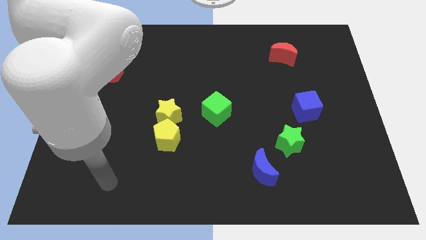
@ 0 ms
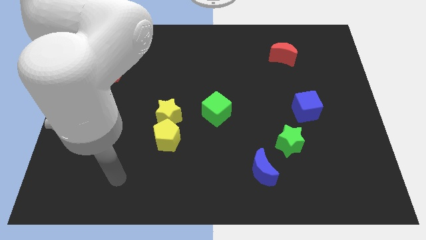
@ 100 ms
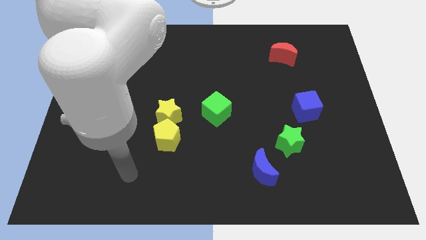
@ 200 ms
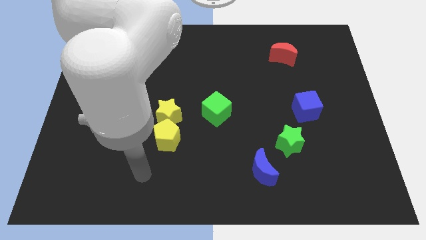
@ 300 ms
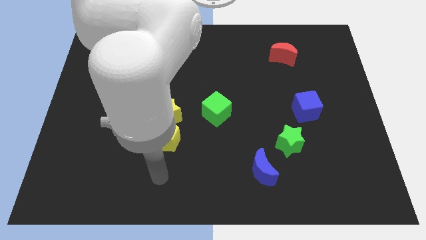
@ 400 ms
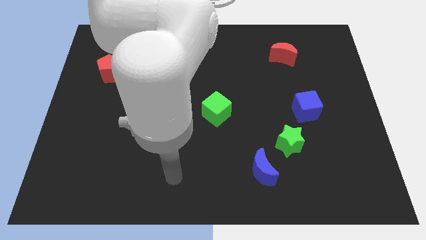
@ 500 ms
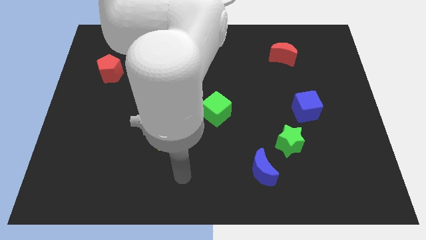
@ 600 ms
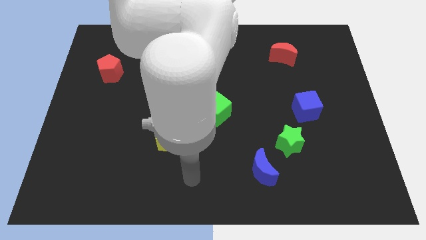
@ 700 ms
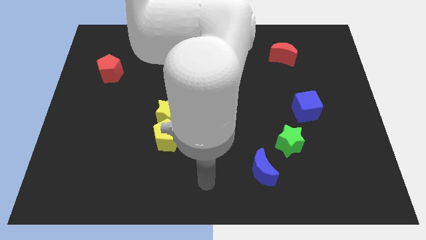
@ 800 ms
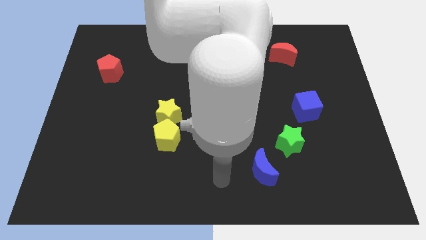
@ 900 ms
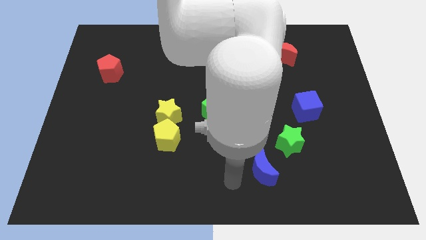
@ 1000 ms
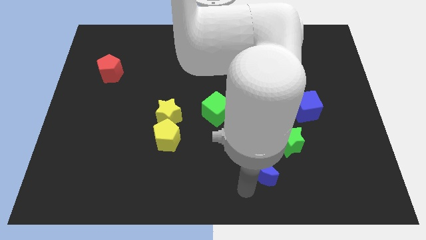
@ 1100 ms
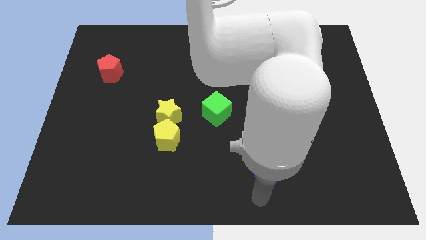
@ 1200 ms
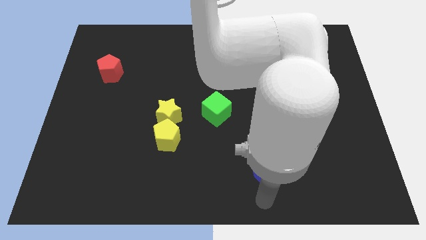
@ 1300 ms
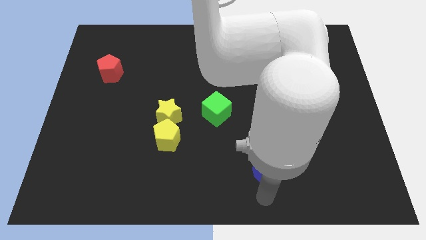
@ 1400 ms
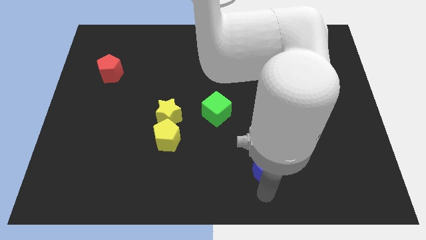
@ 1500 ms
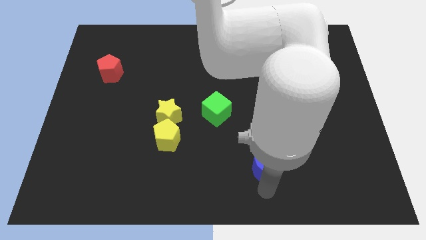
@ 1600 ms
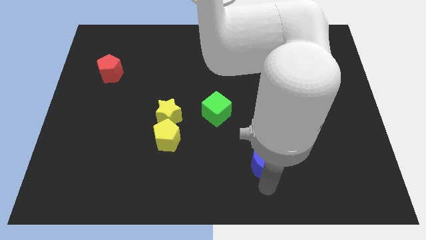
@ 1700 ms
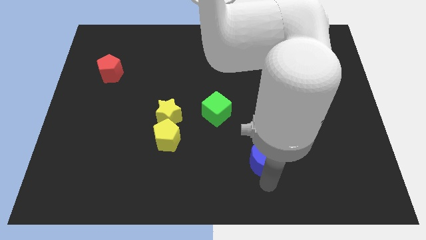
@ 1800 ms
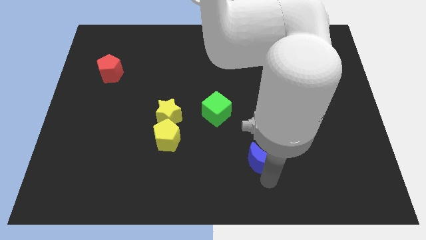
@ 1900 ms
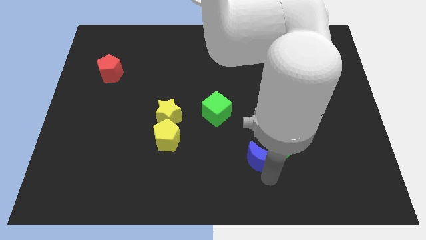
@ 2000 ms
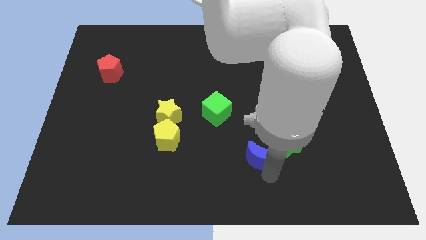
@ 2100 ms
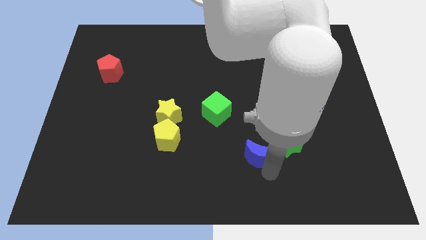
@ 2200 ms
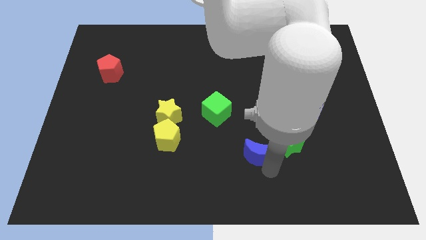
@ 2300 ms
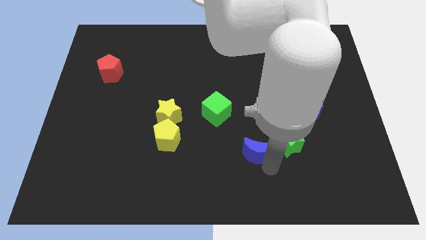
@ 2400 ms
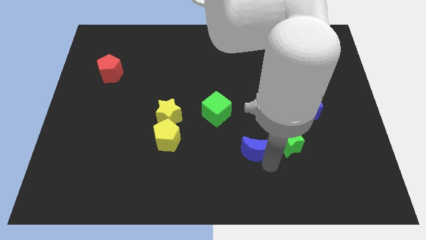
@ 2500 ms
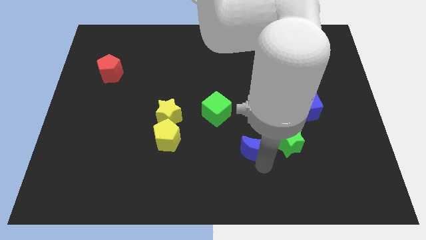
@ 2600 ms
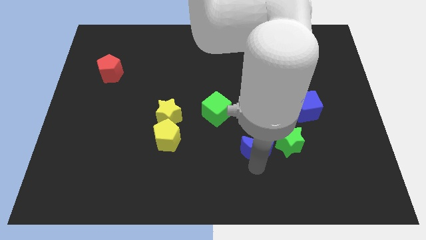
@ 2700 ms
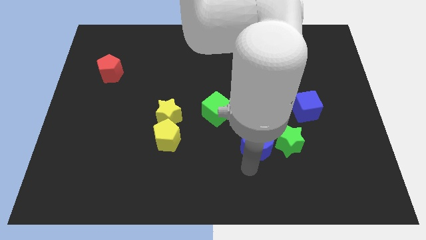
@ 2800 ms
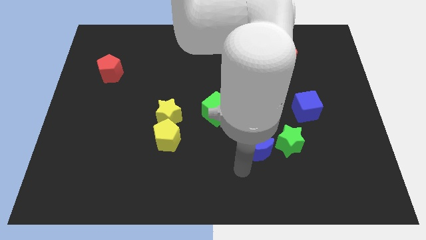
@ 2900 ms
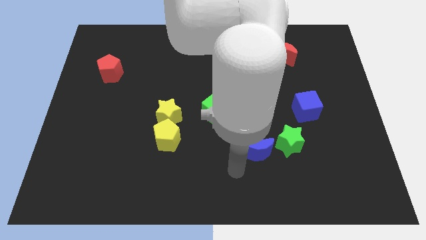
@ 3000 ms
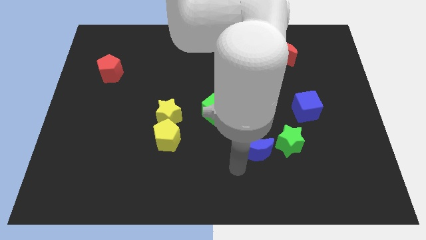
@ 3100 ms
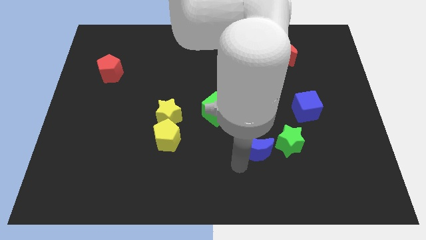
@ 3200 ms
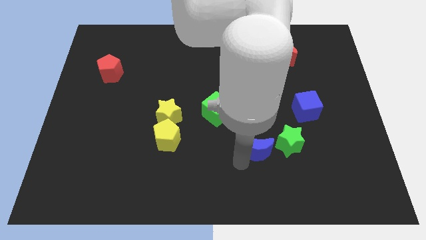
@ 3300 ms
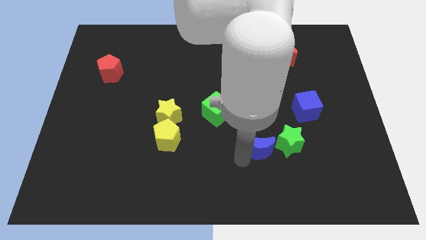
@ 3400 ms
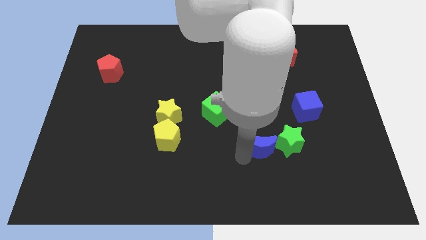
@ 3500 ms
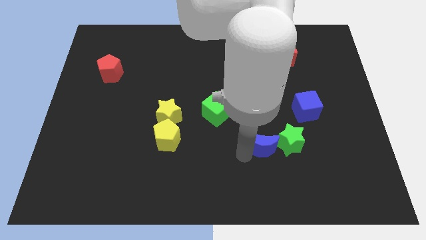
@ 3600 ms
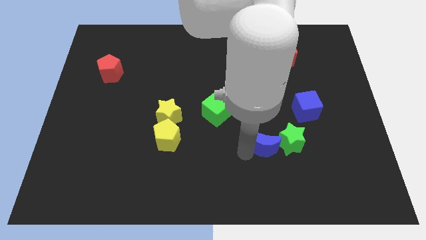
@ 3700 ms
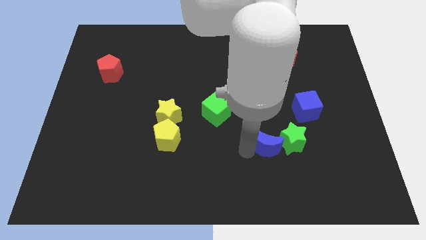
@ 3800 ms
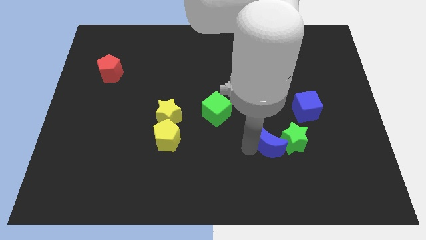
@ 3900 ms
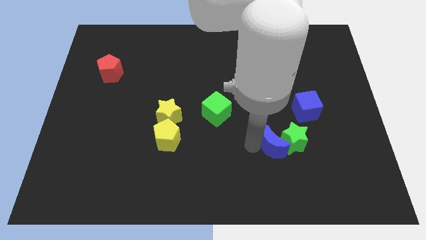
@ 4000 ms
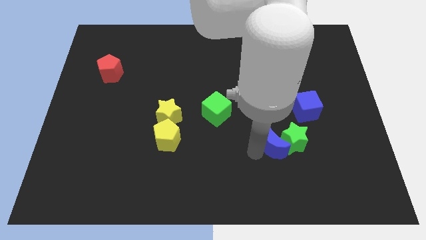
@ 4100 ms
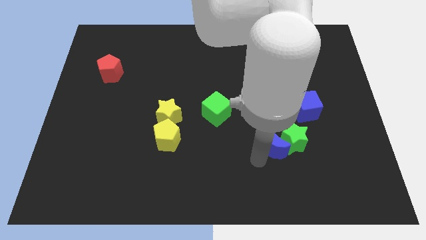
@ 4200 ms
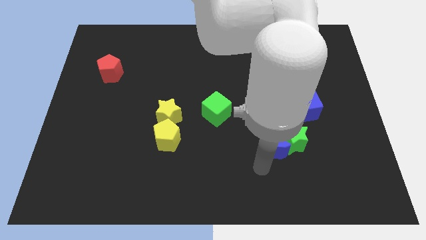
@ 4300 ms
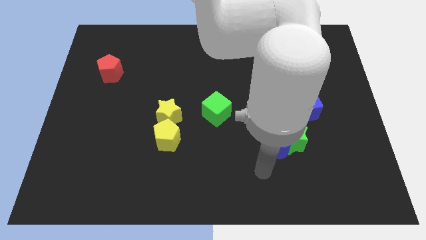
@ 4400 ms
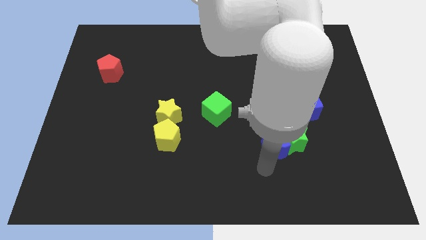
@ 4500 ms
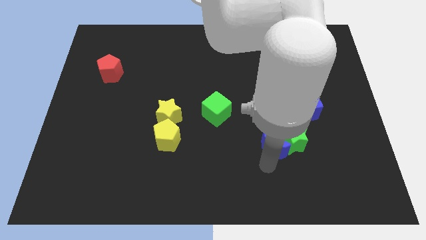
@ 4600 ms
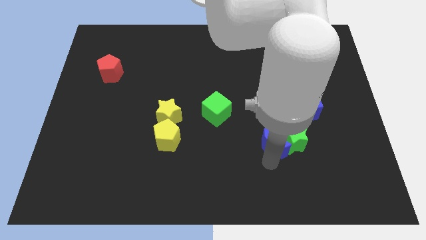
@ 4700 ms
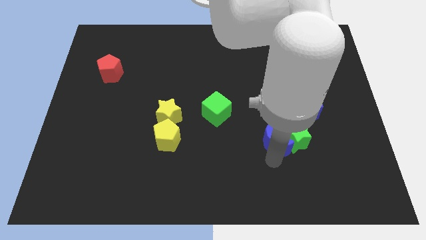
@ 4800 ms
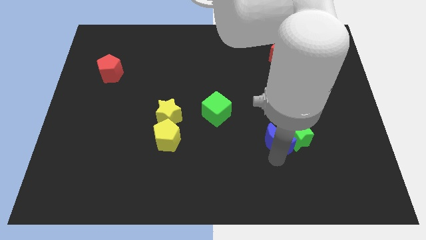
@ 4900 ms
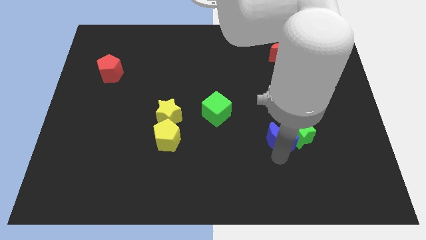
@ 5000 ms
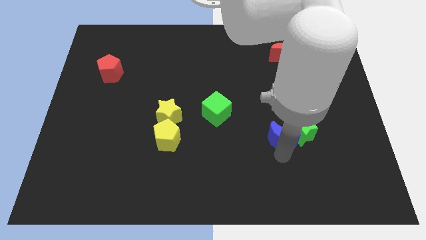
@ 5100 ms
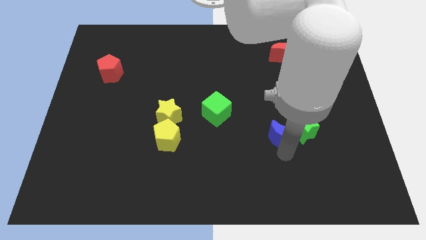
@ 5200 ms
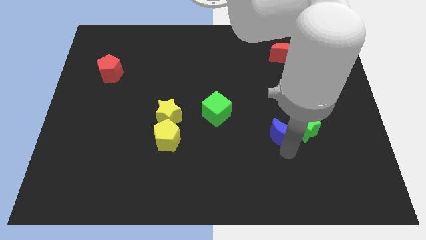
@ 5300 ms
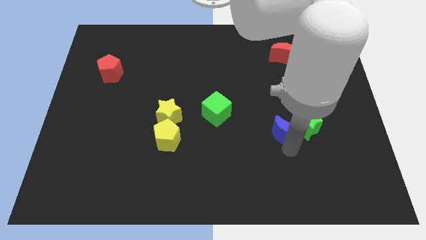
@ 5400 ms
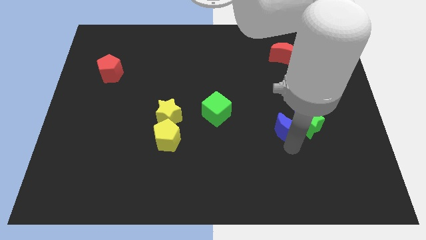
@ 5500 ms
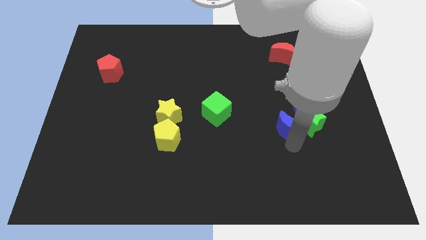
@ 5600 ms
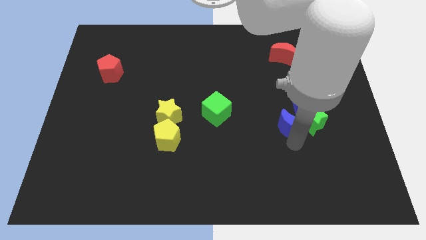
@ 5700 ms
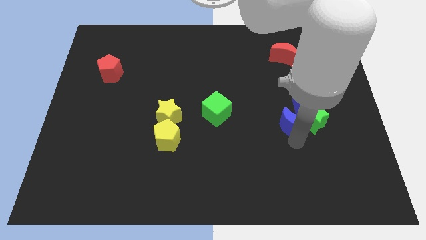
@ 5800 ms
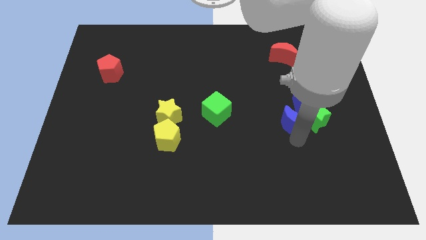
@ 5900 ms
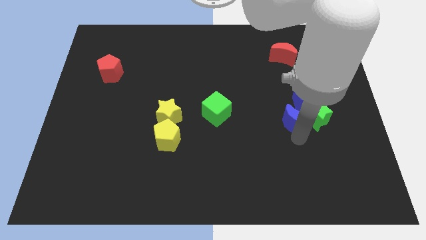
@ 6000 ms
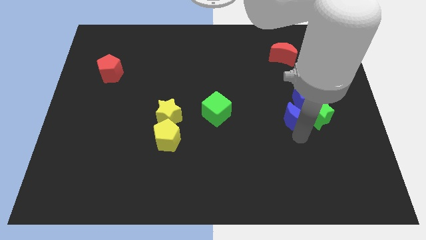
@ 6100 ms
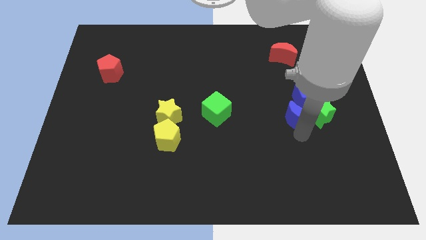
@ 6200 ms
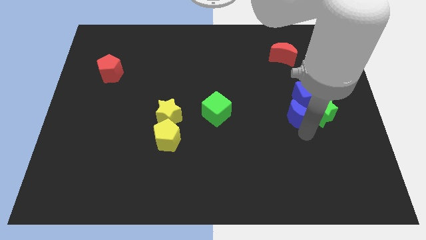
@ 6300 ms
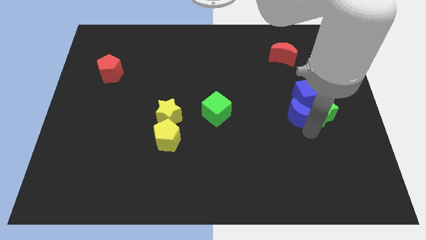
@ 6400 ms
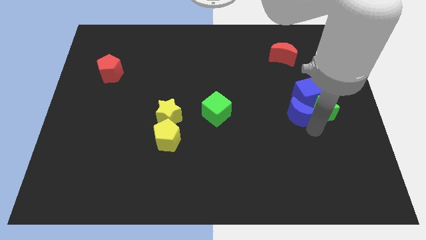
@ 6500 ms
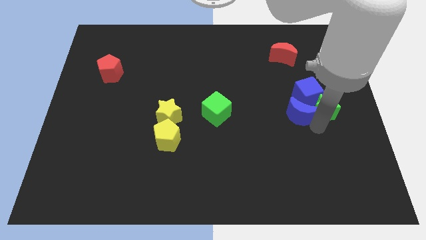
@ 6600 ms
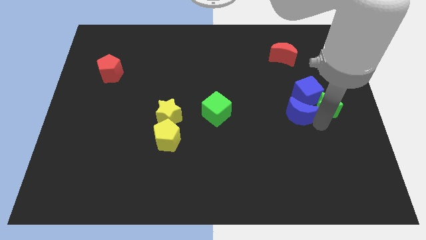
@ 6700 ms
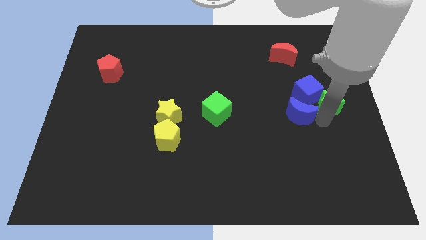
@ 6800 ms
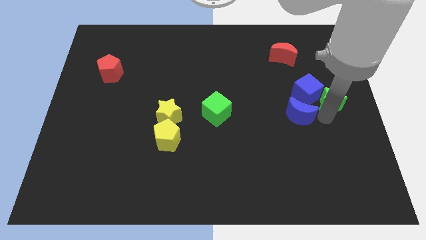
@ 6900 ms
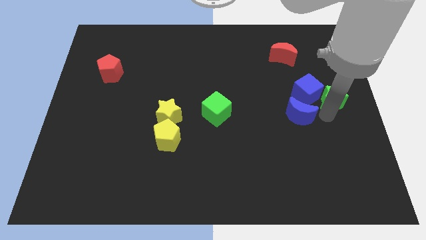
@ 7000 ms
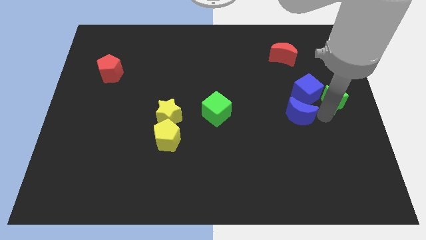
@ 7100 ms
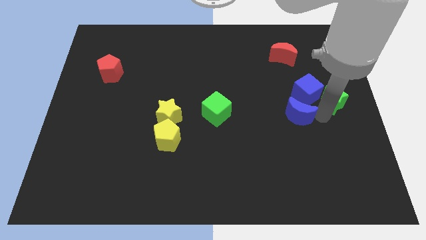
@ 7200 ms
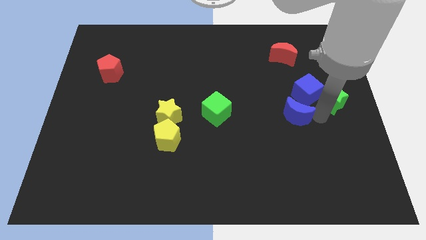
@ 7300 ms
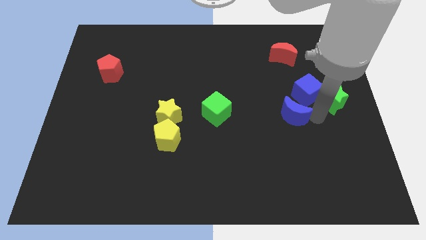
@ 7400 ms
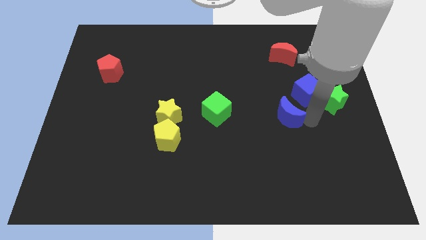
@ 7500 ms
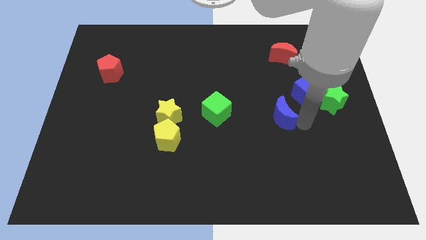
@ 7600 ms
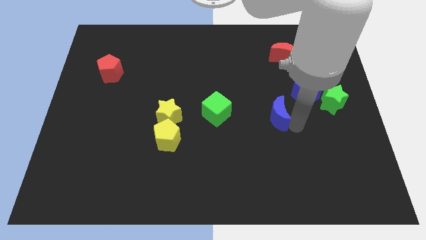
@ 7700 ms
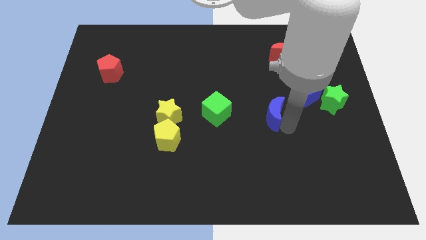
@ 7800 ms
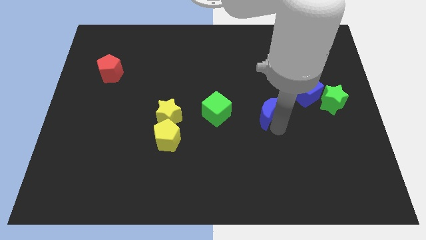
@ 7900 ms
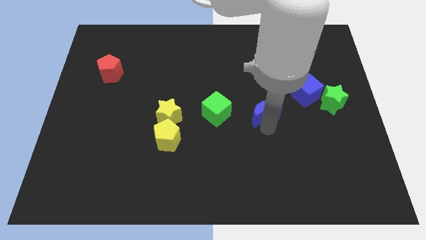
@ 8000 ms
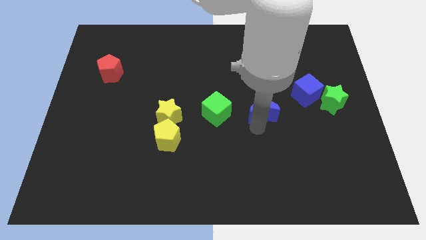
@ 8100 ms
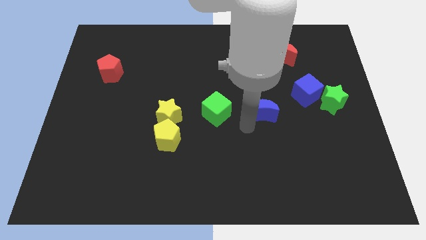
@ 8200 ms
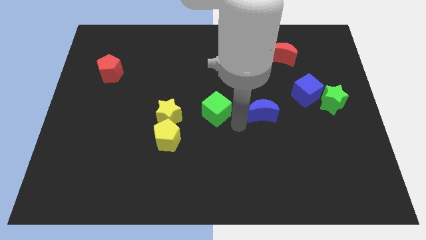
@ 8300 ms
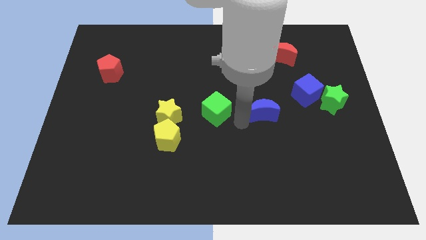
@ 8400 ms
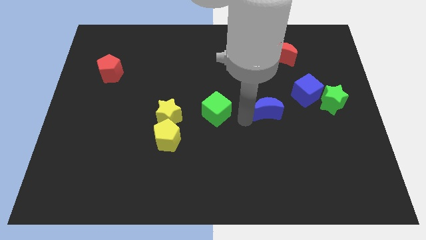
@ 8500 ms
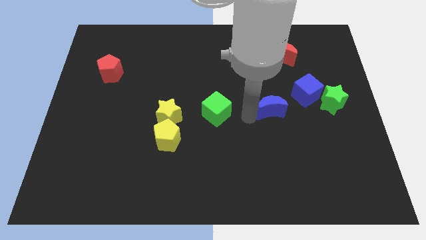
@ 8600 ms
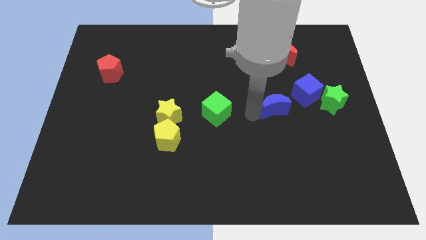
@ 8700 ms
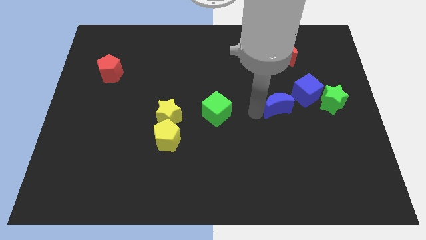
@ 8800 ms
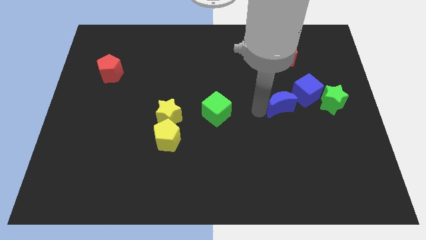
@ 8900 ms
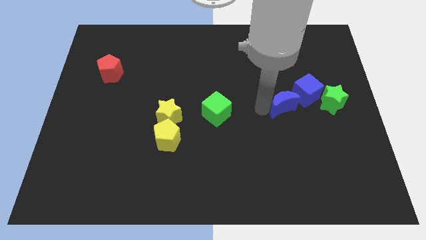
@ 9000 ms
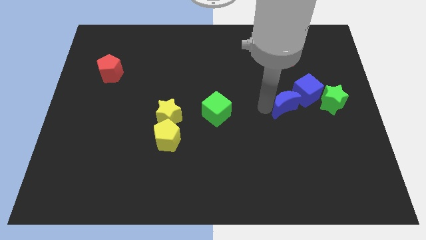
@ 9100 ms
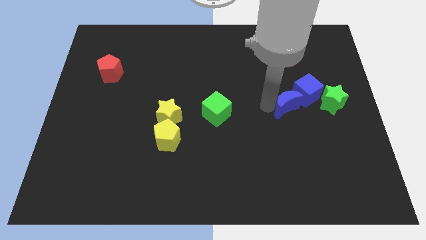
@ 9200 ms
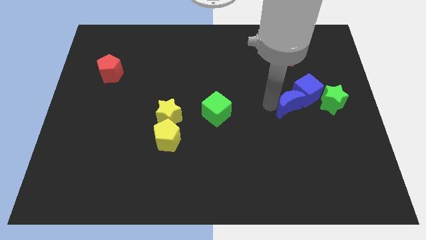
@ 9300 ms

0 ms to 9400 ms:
push the blue moon close to the blue cube
